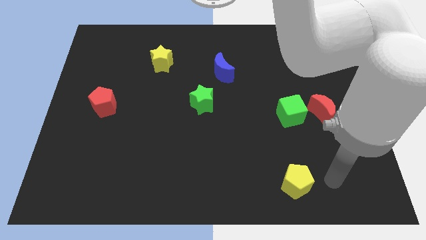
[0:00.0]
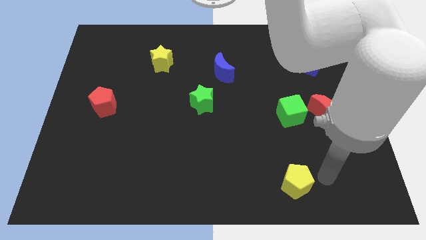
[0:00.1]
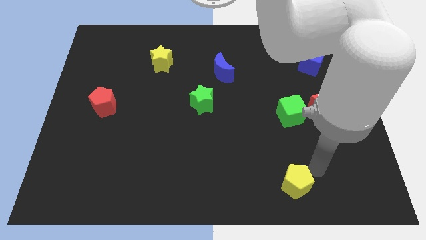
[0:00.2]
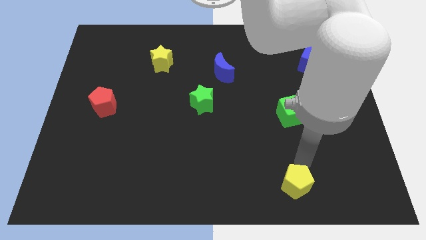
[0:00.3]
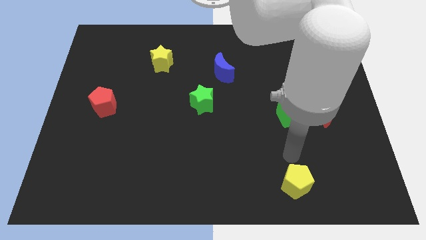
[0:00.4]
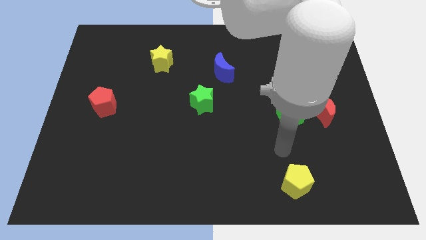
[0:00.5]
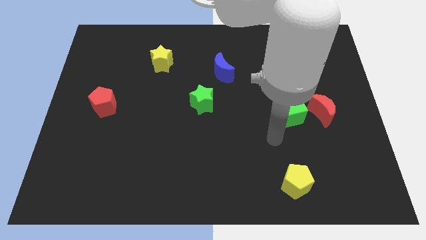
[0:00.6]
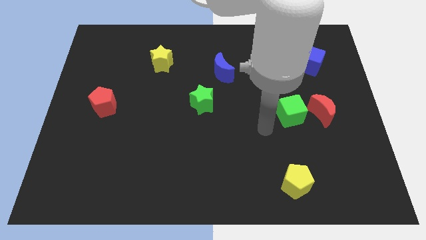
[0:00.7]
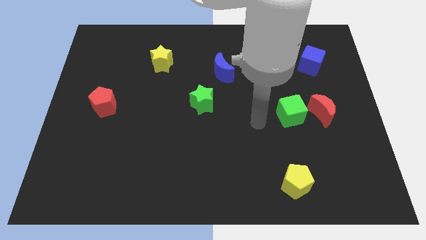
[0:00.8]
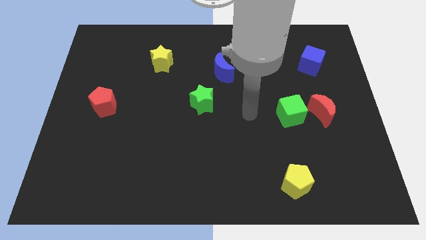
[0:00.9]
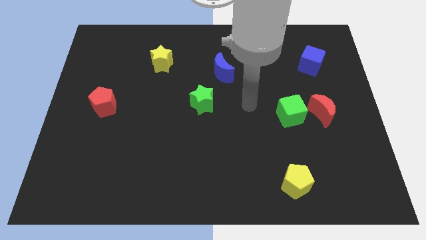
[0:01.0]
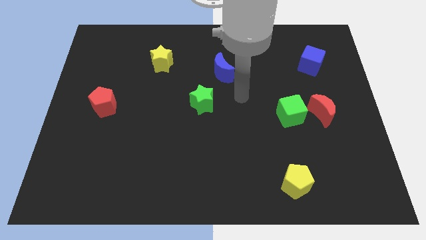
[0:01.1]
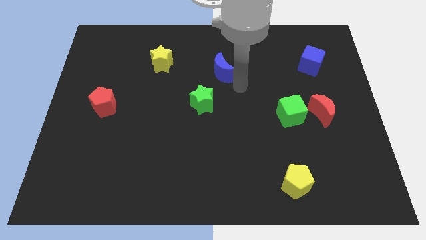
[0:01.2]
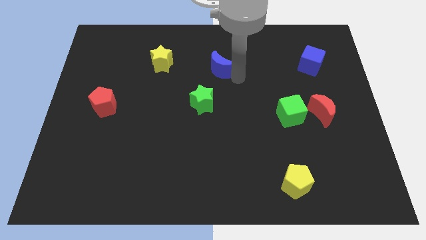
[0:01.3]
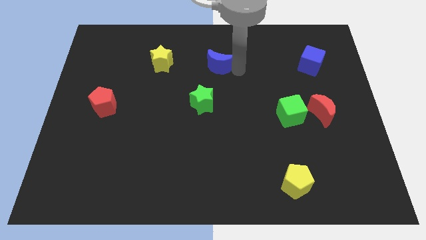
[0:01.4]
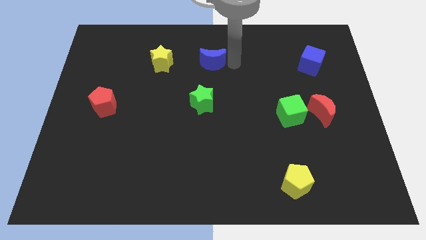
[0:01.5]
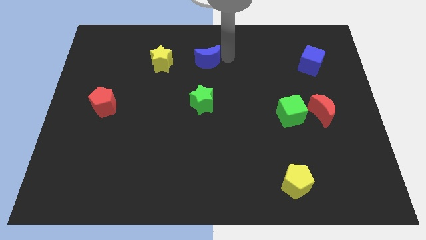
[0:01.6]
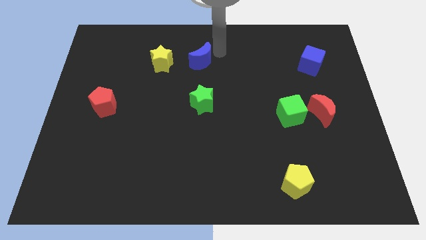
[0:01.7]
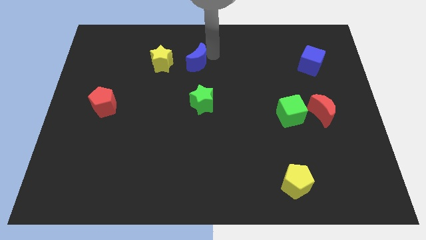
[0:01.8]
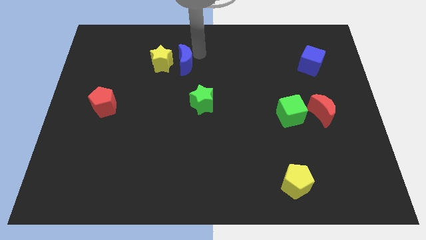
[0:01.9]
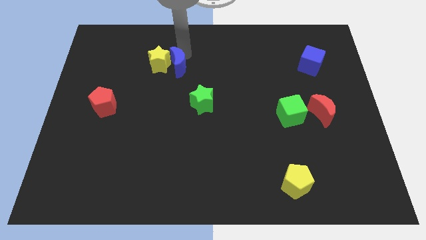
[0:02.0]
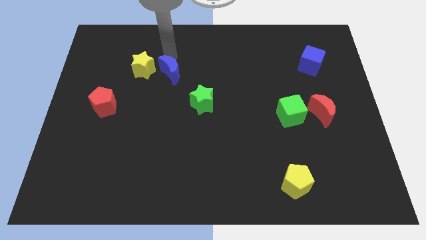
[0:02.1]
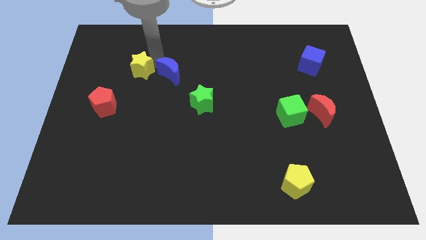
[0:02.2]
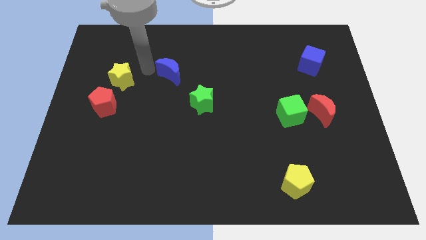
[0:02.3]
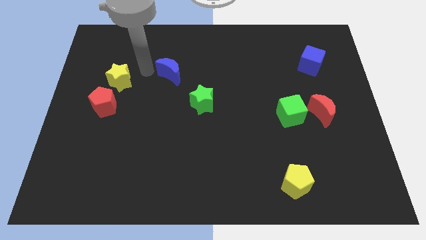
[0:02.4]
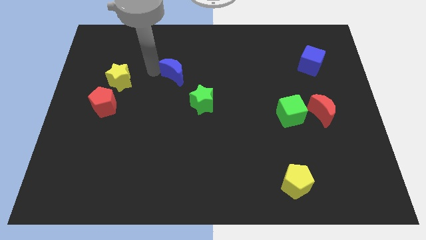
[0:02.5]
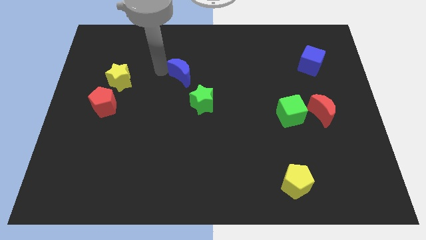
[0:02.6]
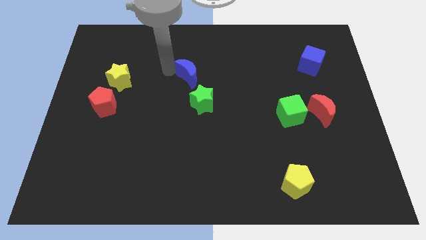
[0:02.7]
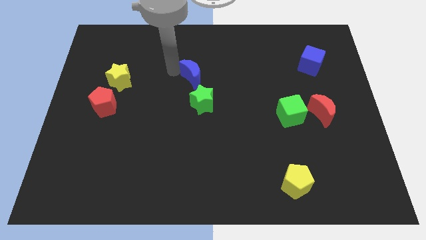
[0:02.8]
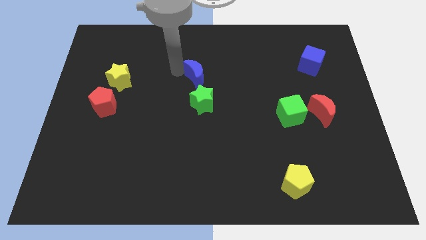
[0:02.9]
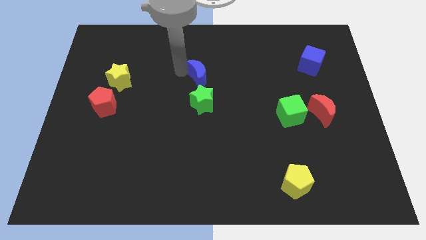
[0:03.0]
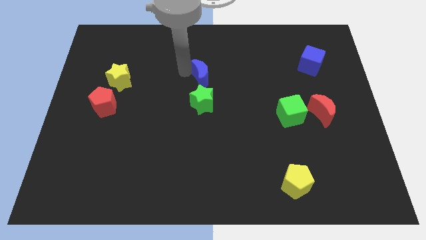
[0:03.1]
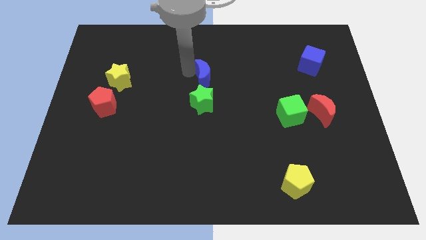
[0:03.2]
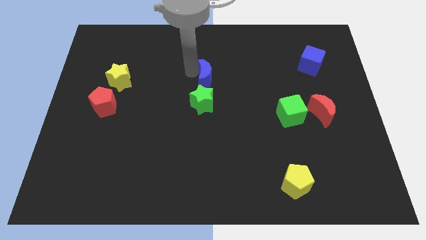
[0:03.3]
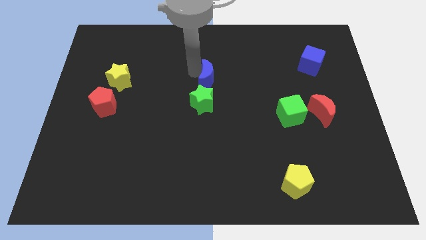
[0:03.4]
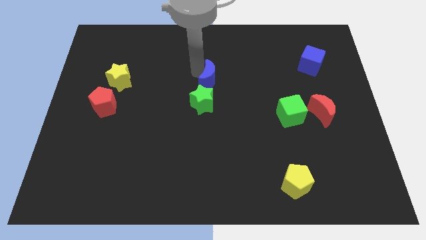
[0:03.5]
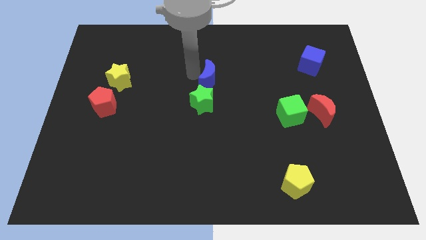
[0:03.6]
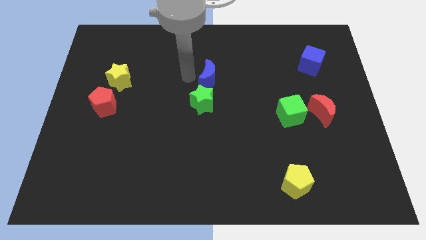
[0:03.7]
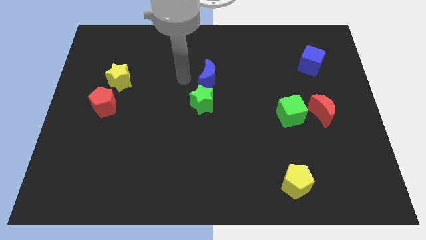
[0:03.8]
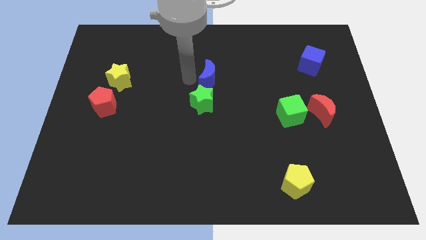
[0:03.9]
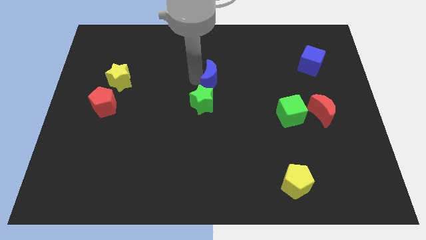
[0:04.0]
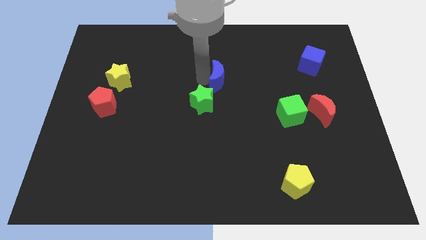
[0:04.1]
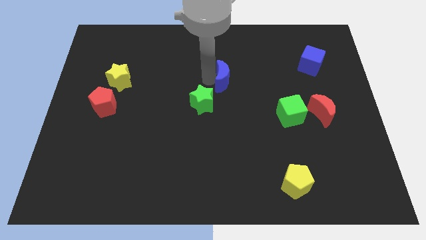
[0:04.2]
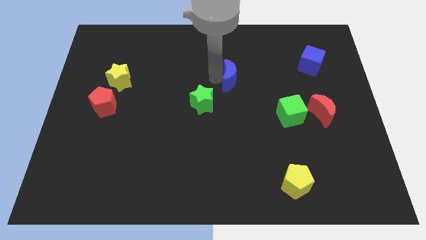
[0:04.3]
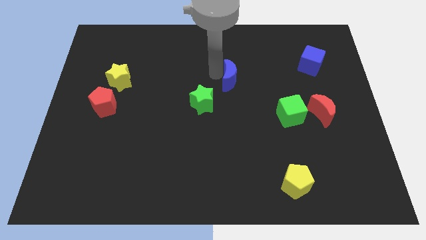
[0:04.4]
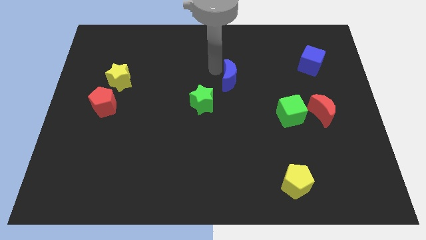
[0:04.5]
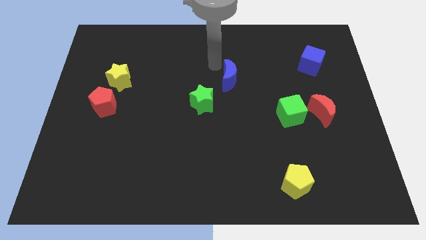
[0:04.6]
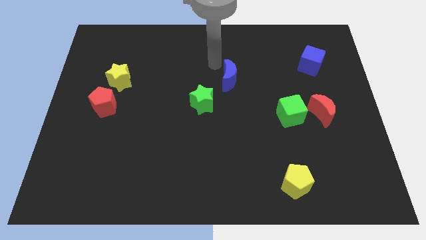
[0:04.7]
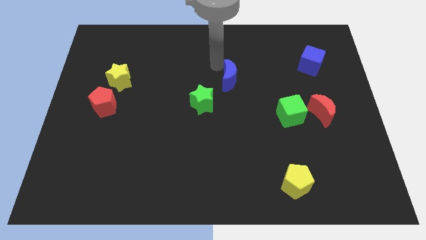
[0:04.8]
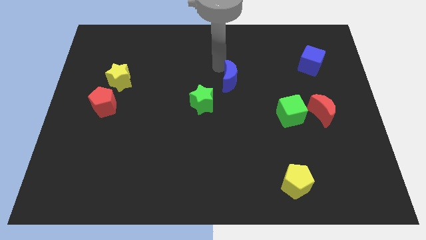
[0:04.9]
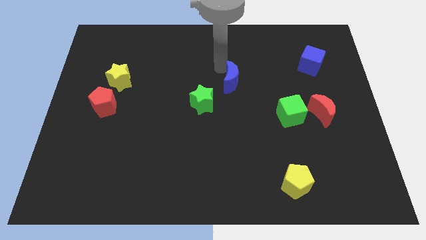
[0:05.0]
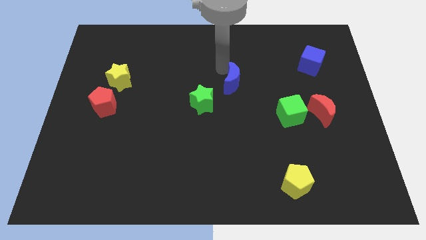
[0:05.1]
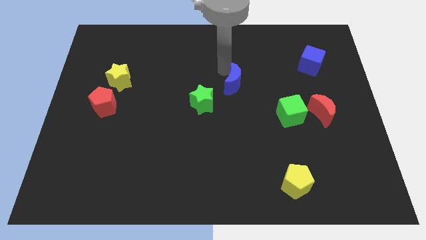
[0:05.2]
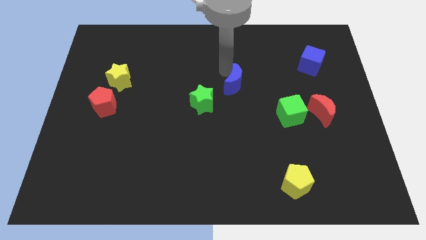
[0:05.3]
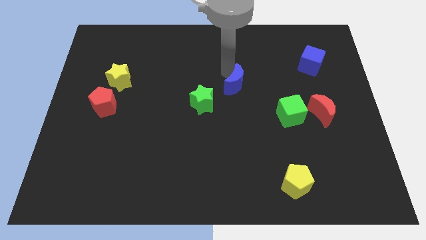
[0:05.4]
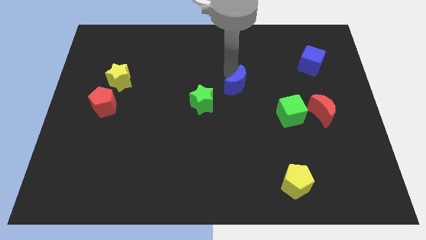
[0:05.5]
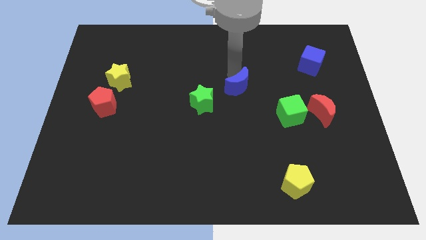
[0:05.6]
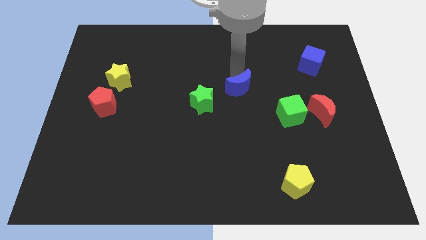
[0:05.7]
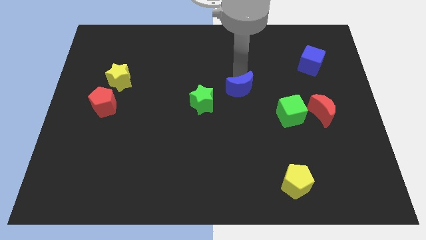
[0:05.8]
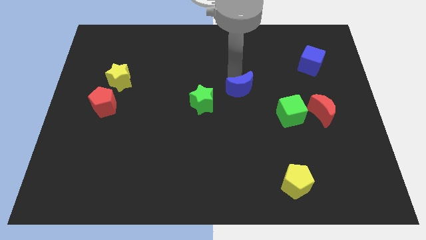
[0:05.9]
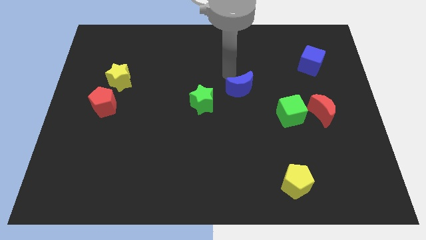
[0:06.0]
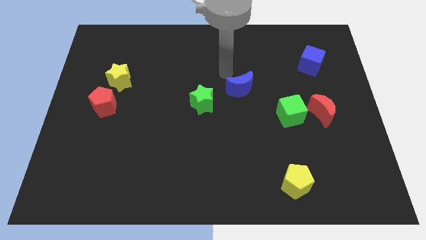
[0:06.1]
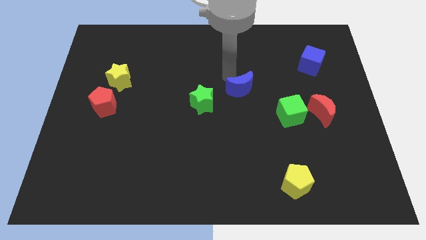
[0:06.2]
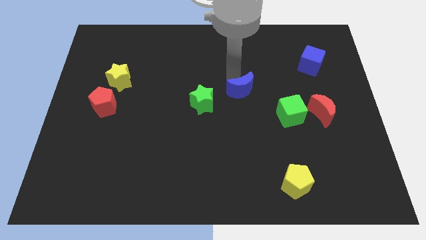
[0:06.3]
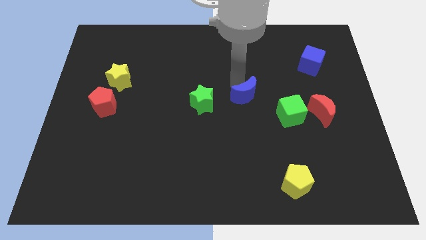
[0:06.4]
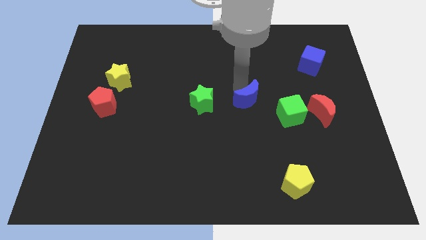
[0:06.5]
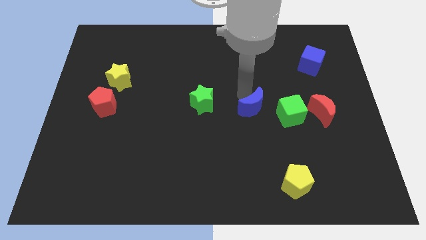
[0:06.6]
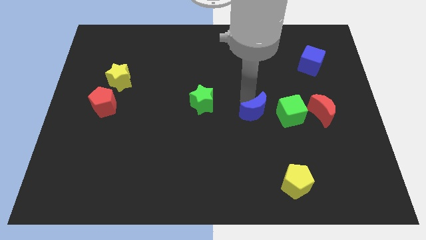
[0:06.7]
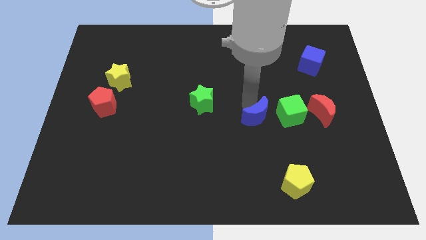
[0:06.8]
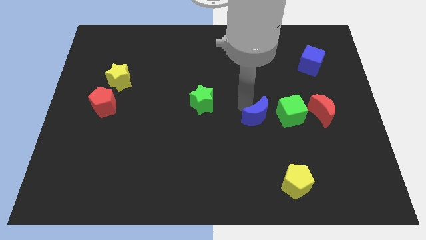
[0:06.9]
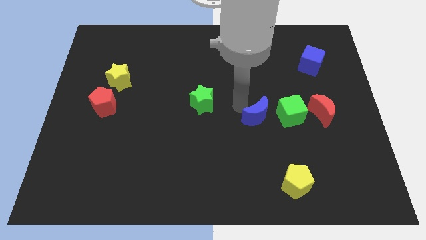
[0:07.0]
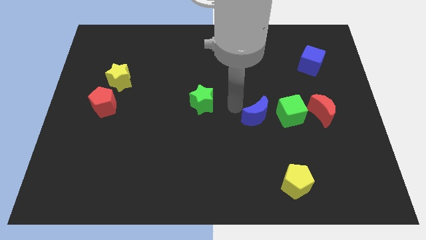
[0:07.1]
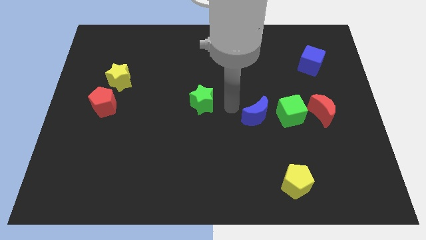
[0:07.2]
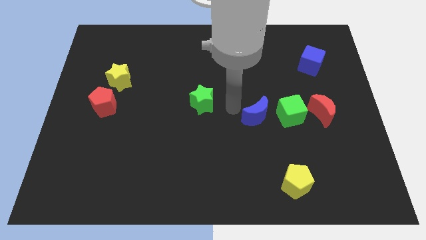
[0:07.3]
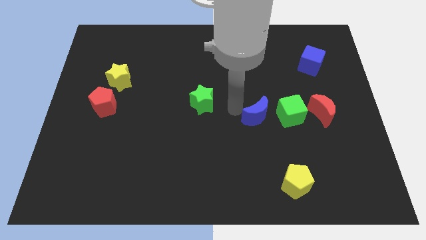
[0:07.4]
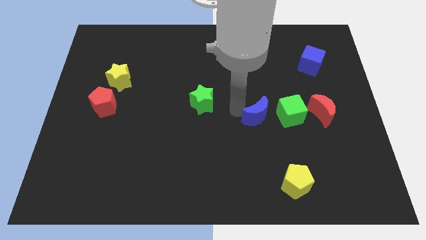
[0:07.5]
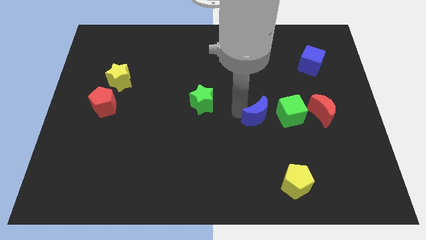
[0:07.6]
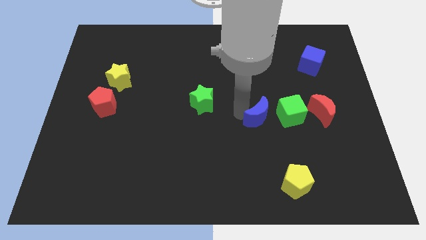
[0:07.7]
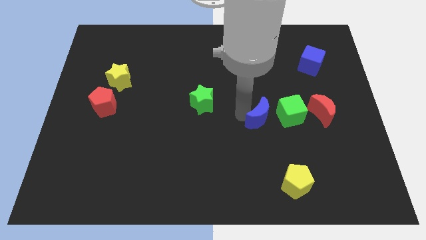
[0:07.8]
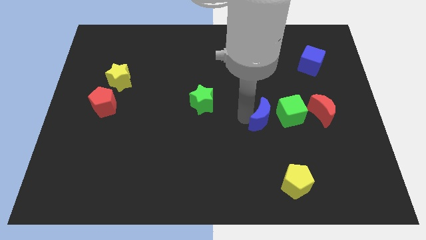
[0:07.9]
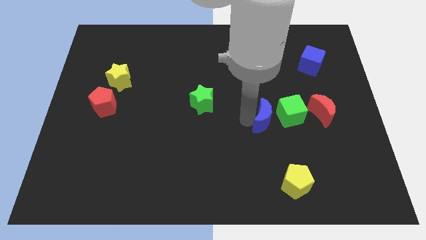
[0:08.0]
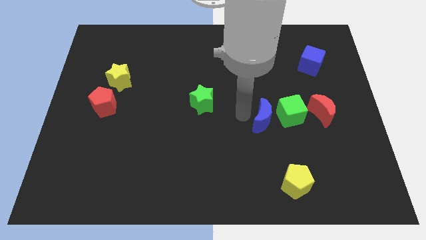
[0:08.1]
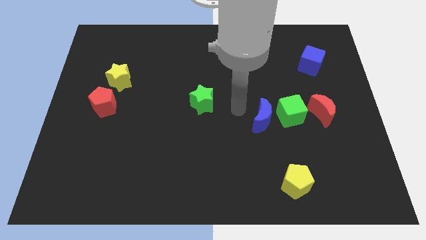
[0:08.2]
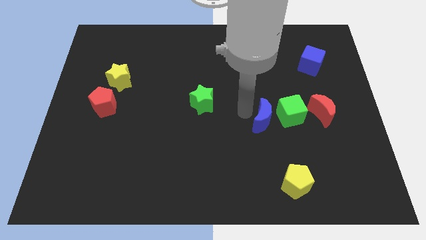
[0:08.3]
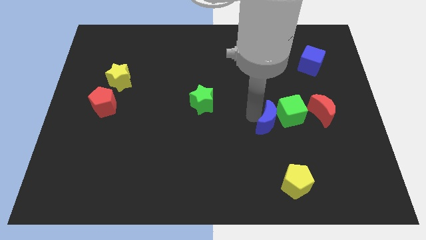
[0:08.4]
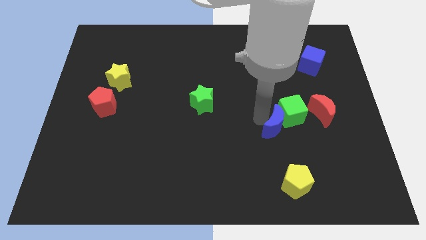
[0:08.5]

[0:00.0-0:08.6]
move the blue moon diagonally downwards and to the right
